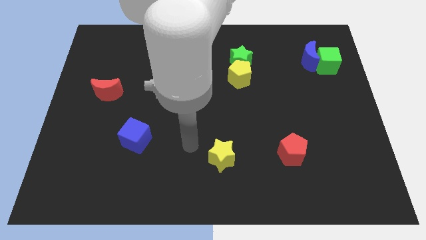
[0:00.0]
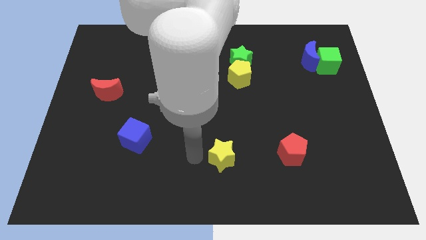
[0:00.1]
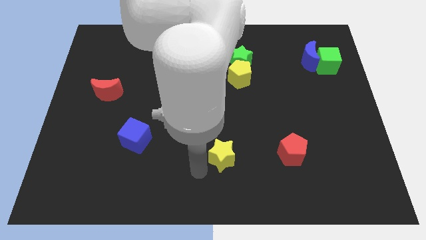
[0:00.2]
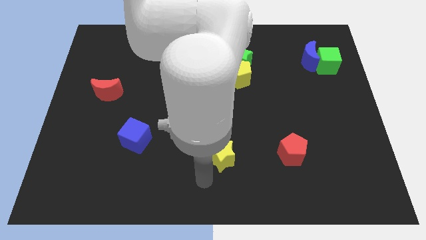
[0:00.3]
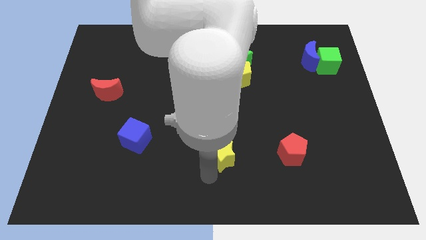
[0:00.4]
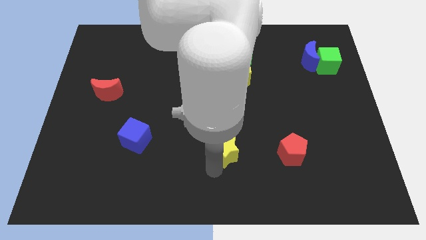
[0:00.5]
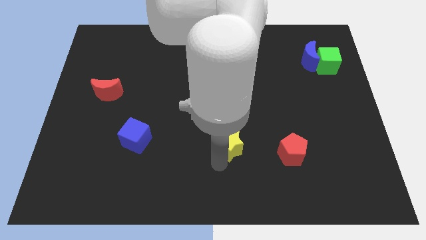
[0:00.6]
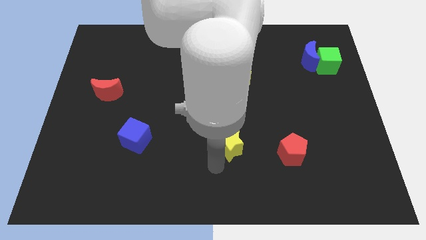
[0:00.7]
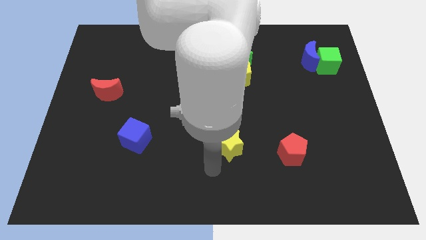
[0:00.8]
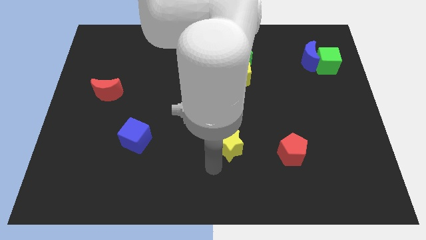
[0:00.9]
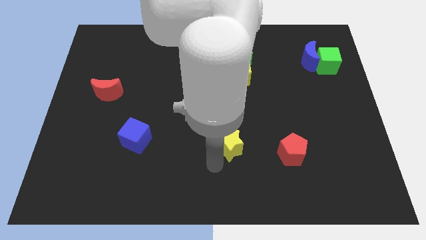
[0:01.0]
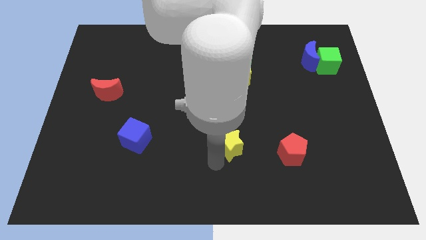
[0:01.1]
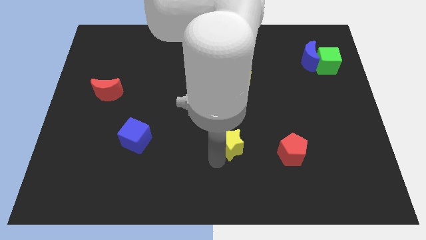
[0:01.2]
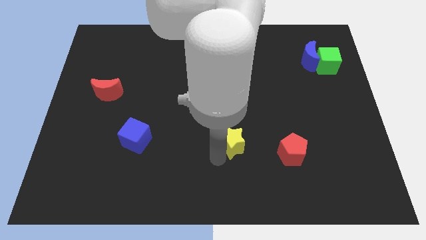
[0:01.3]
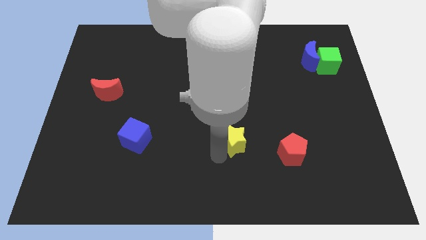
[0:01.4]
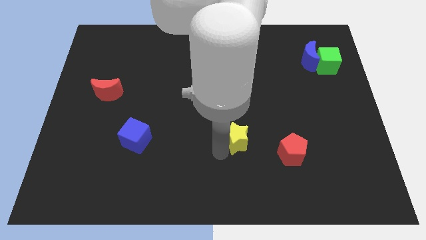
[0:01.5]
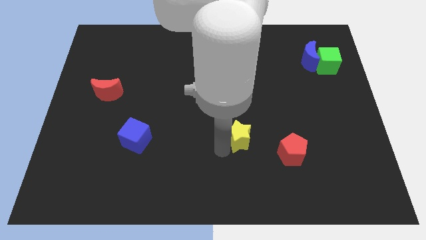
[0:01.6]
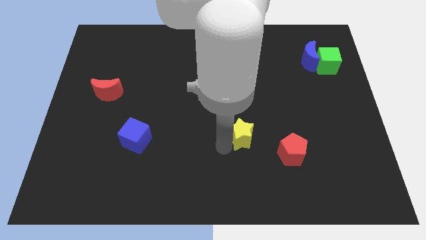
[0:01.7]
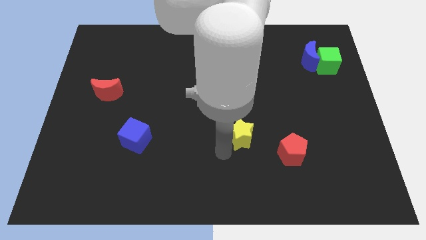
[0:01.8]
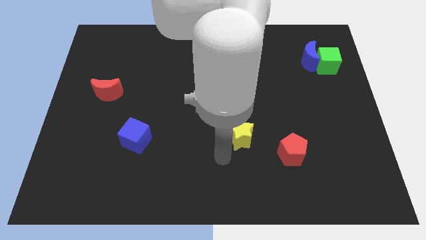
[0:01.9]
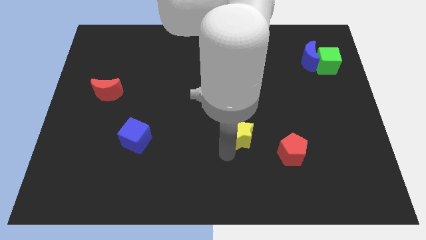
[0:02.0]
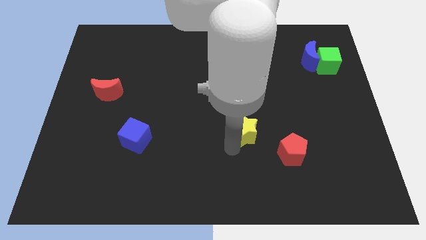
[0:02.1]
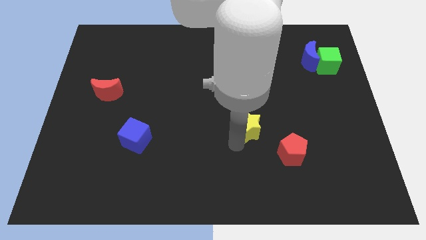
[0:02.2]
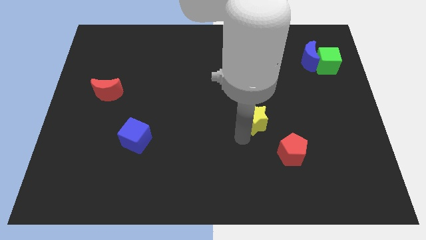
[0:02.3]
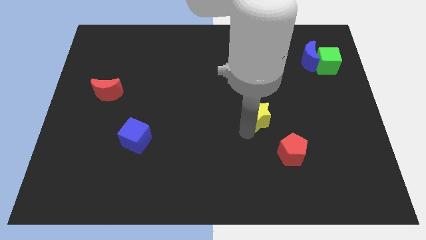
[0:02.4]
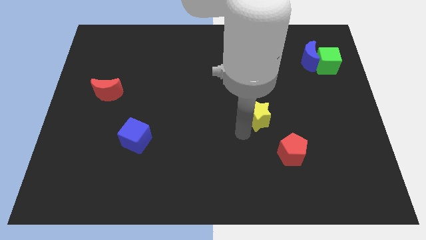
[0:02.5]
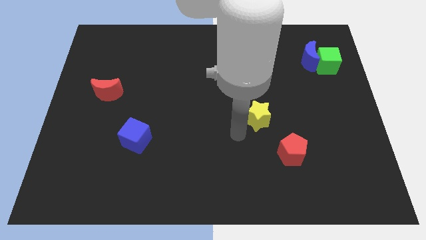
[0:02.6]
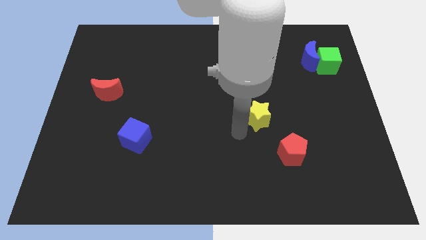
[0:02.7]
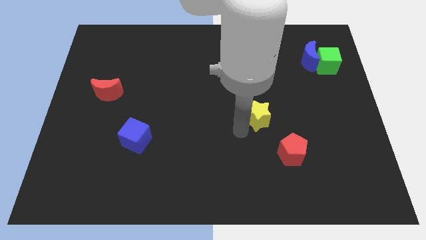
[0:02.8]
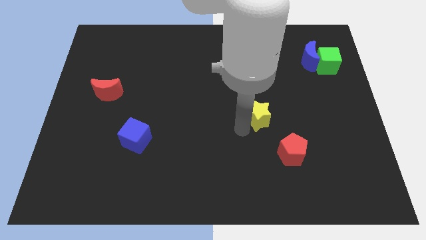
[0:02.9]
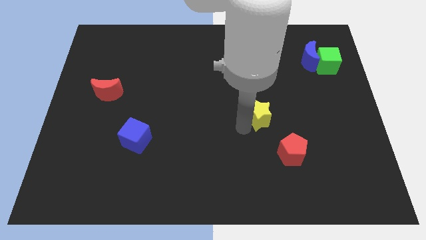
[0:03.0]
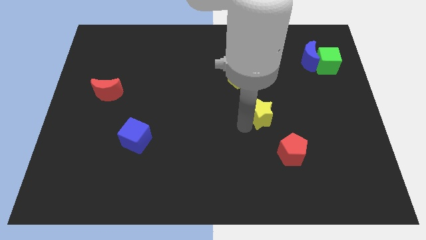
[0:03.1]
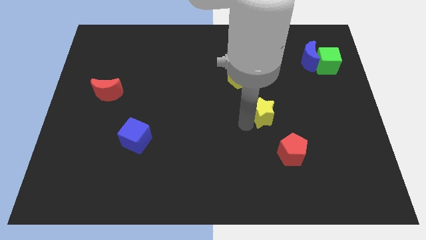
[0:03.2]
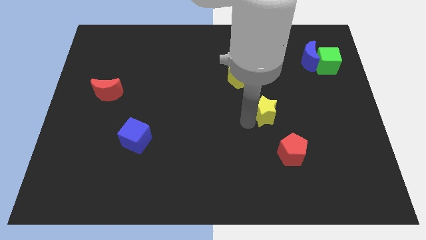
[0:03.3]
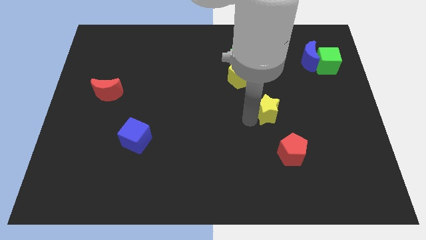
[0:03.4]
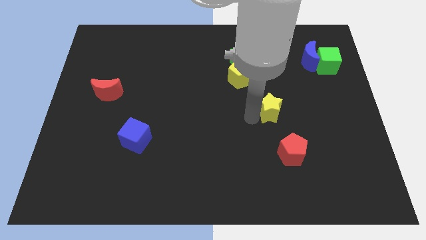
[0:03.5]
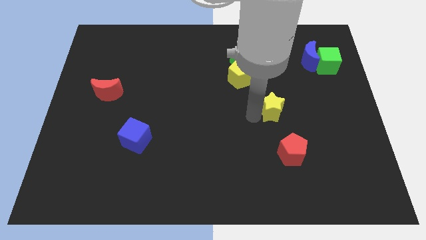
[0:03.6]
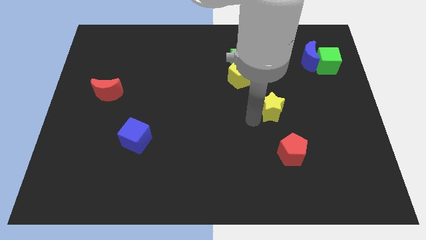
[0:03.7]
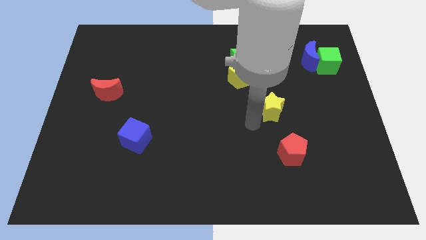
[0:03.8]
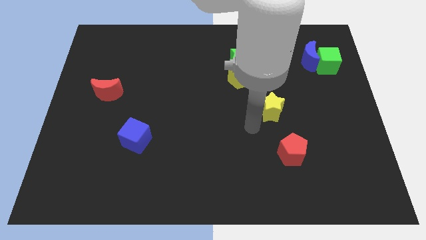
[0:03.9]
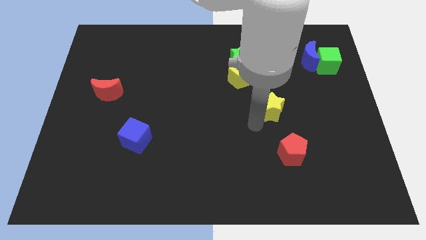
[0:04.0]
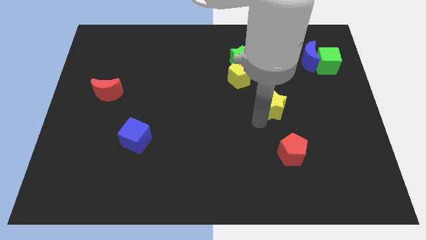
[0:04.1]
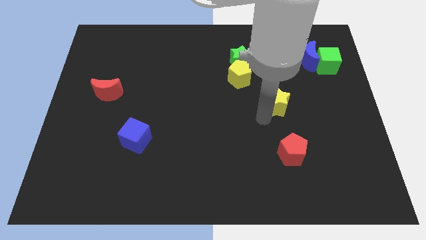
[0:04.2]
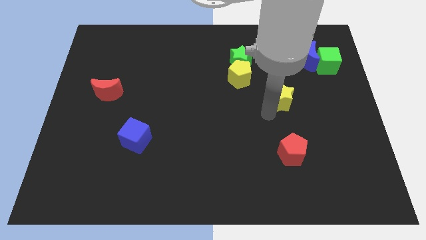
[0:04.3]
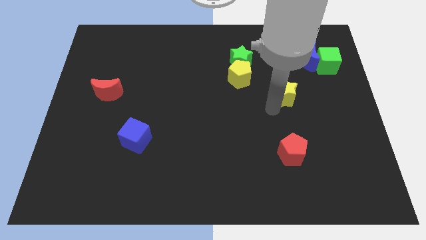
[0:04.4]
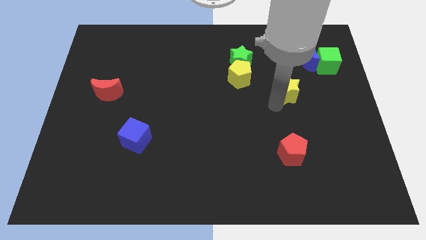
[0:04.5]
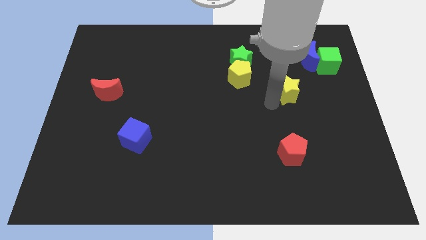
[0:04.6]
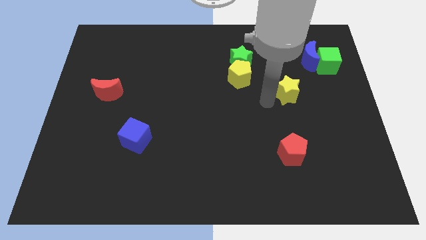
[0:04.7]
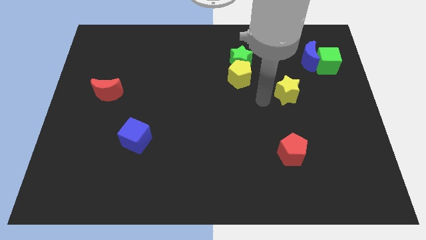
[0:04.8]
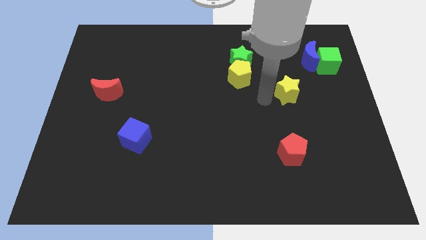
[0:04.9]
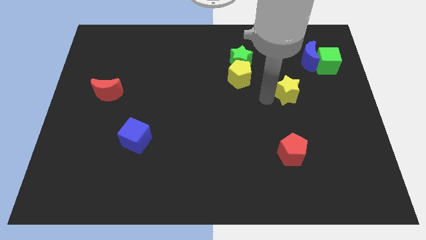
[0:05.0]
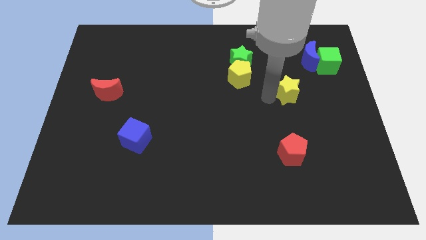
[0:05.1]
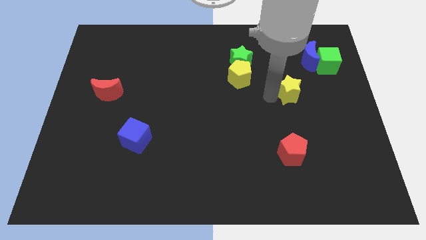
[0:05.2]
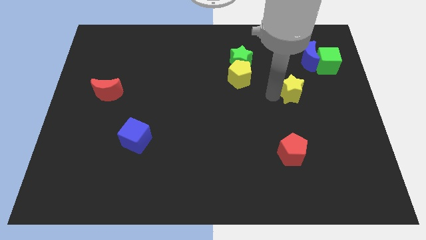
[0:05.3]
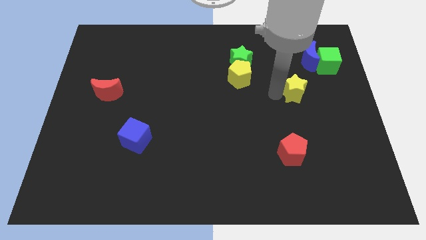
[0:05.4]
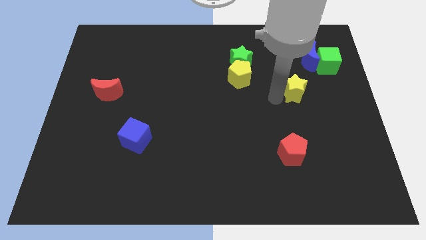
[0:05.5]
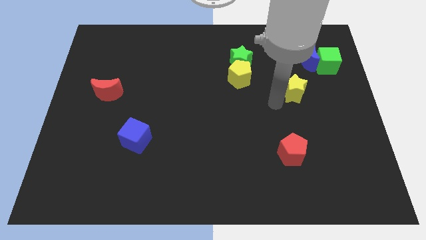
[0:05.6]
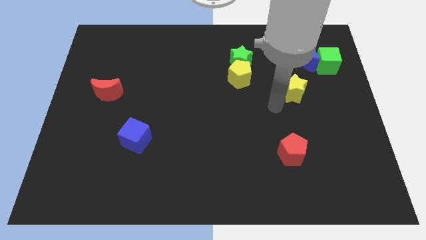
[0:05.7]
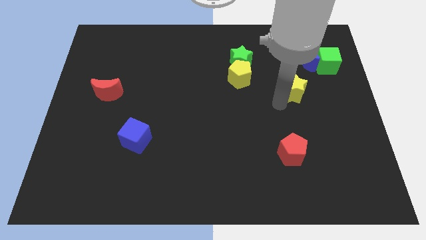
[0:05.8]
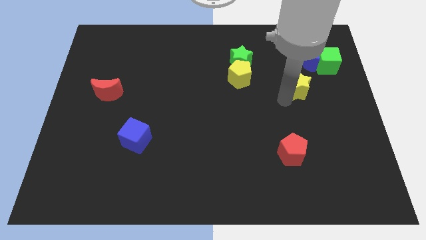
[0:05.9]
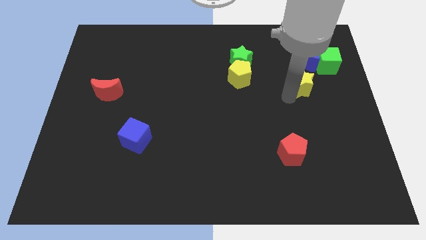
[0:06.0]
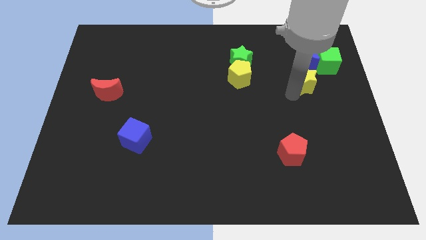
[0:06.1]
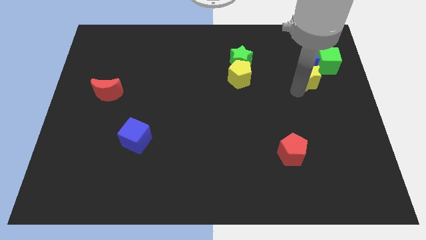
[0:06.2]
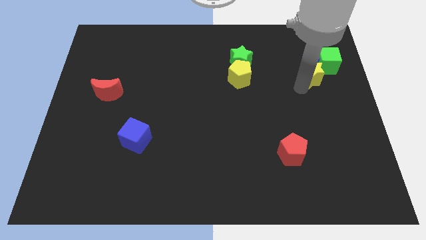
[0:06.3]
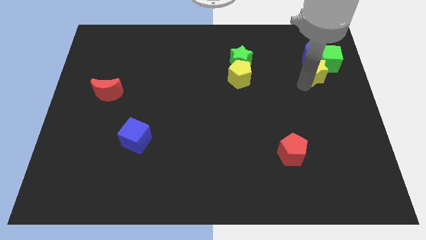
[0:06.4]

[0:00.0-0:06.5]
move the yellow star close to the green cube

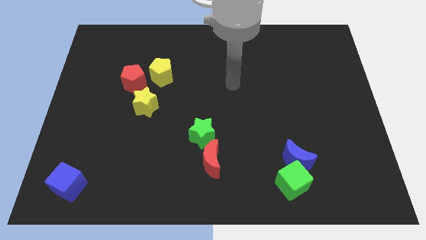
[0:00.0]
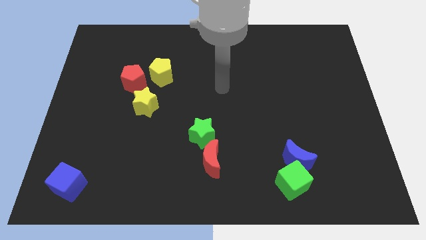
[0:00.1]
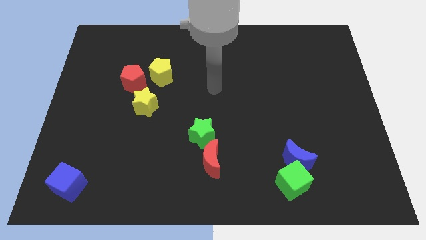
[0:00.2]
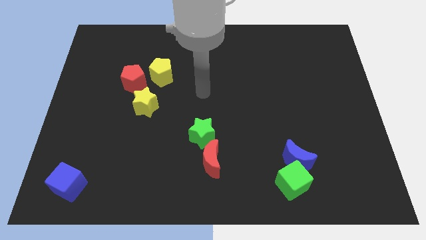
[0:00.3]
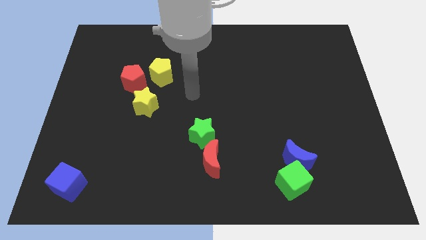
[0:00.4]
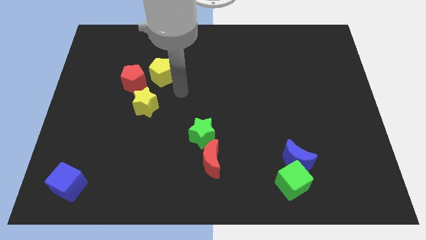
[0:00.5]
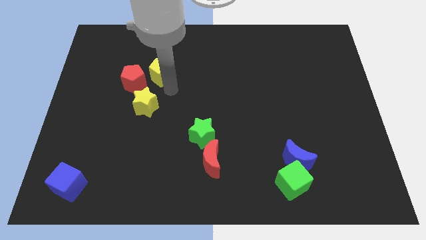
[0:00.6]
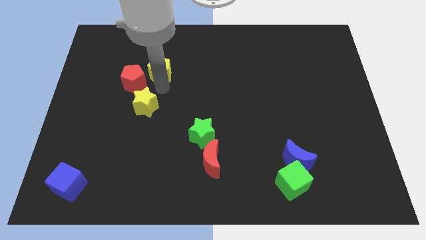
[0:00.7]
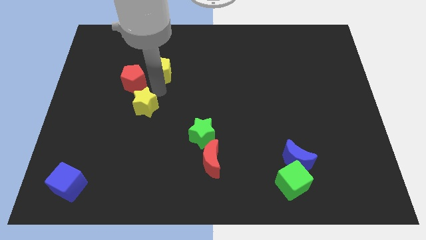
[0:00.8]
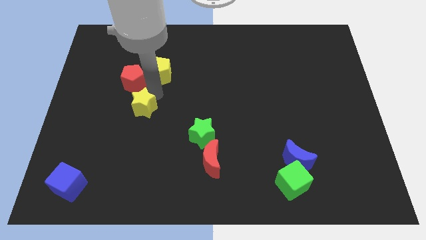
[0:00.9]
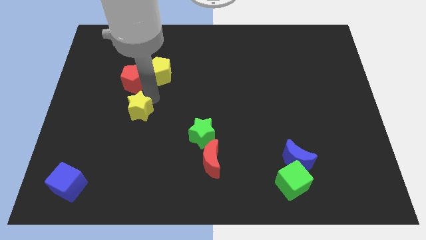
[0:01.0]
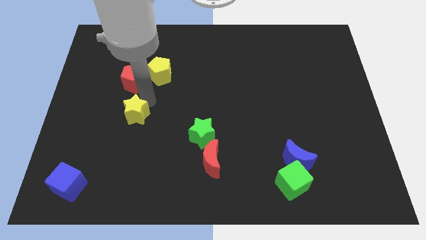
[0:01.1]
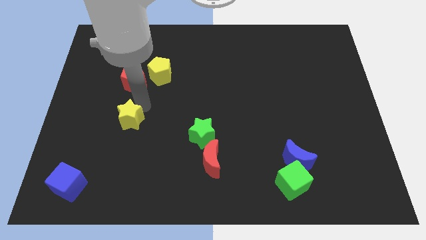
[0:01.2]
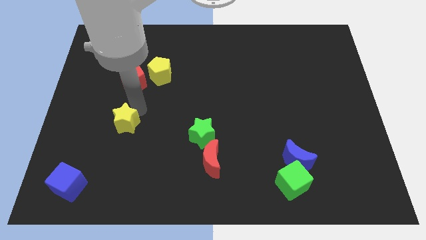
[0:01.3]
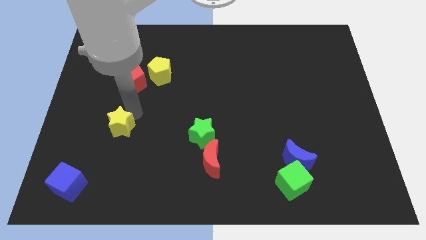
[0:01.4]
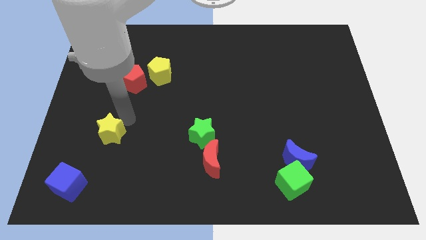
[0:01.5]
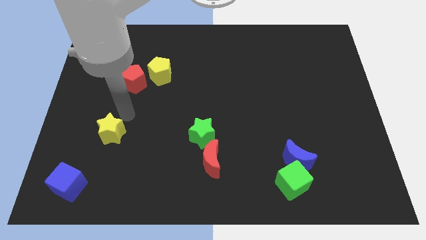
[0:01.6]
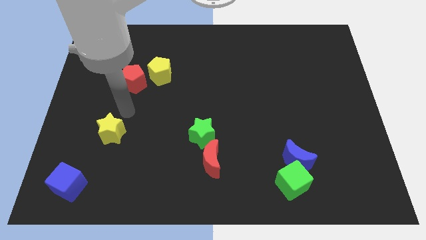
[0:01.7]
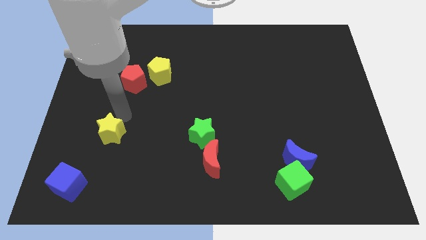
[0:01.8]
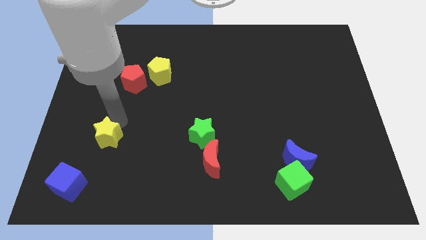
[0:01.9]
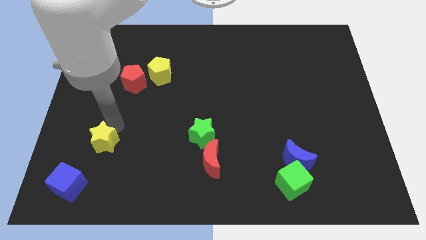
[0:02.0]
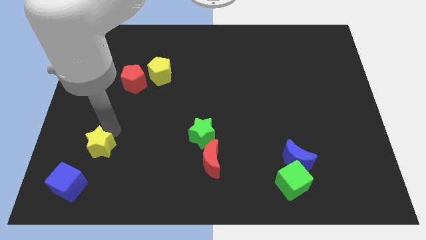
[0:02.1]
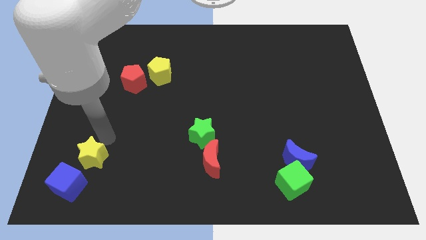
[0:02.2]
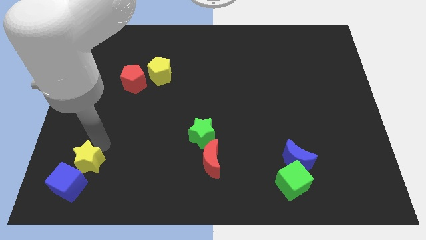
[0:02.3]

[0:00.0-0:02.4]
slide the yellow star to the blue cube
